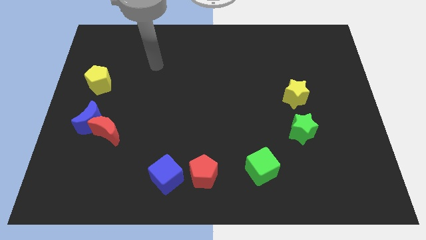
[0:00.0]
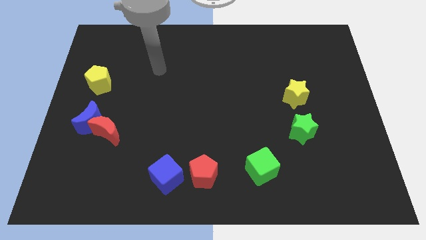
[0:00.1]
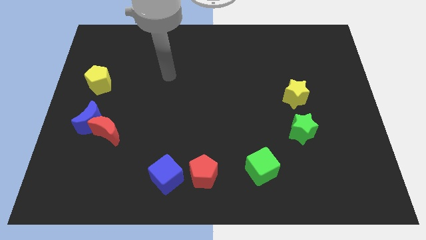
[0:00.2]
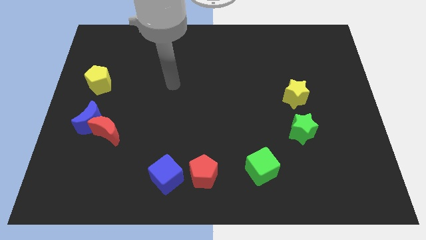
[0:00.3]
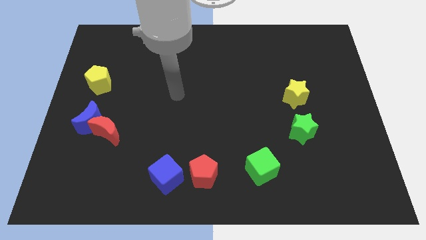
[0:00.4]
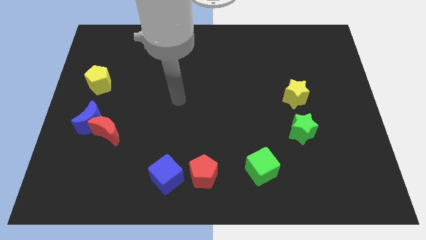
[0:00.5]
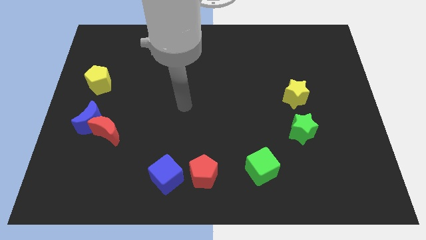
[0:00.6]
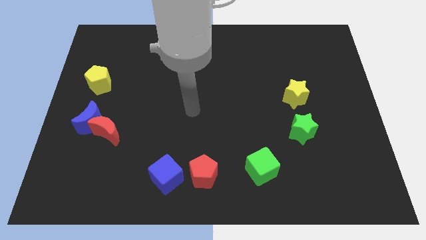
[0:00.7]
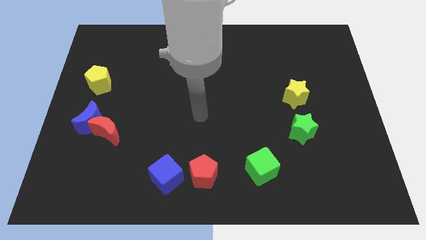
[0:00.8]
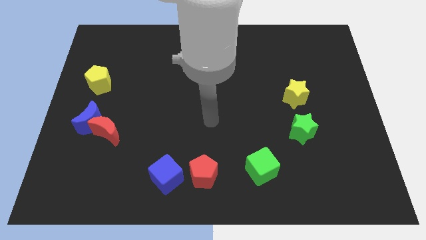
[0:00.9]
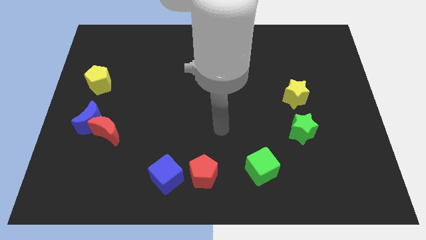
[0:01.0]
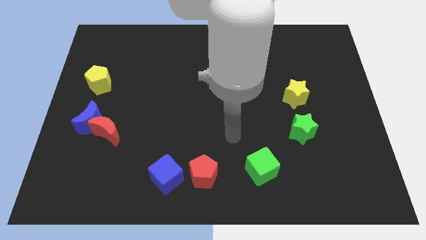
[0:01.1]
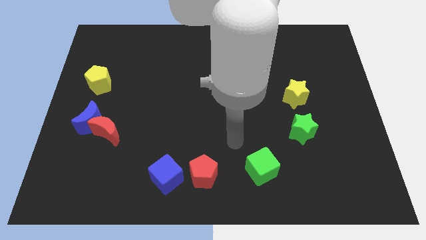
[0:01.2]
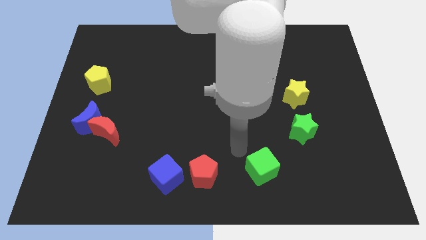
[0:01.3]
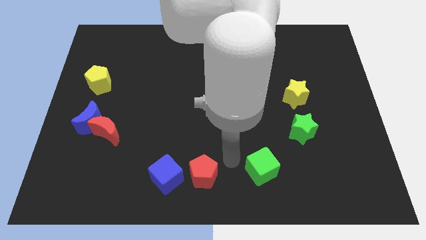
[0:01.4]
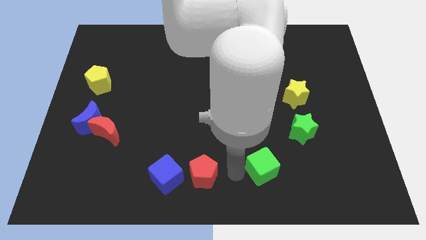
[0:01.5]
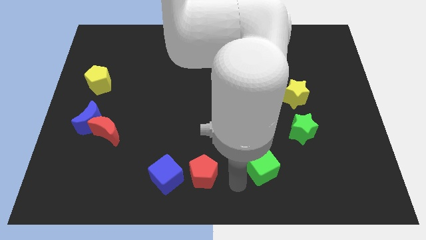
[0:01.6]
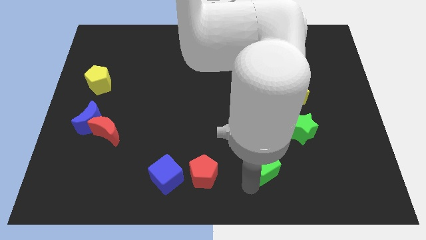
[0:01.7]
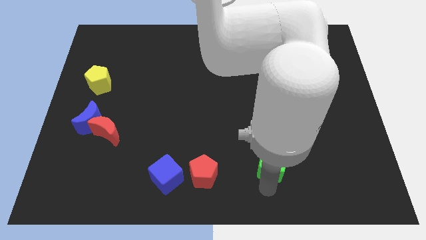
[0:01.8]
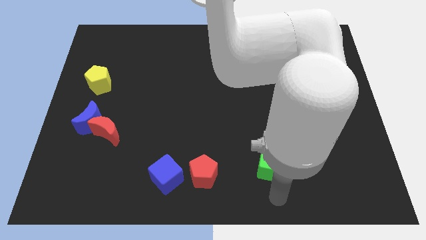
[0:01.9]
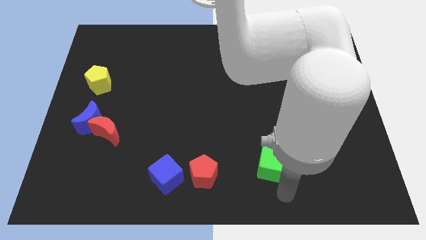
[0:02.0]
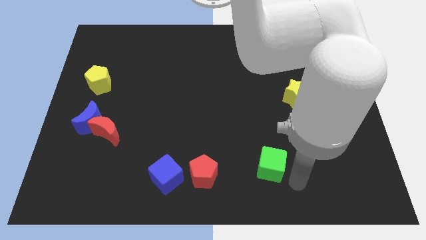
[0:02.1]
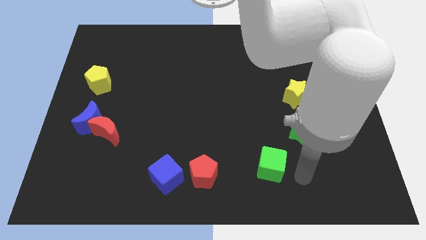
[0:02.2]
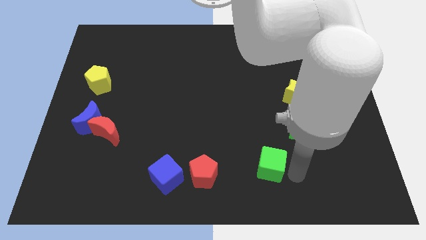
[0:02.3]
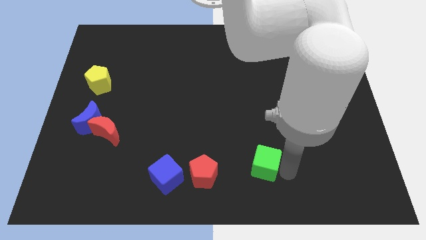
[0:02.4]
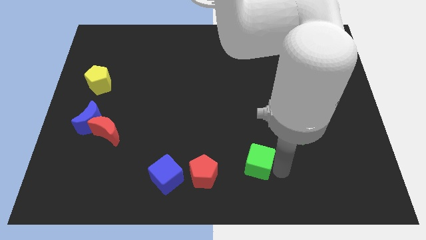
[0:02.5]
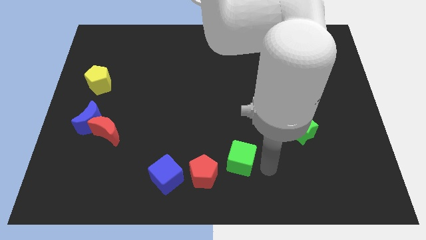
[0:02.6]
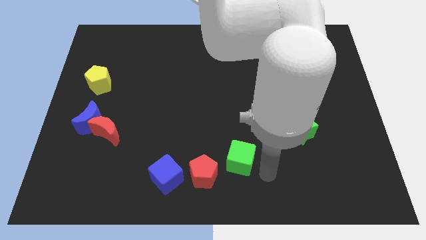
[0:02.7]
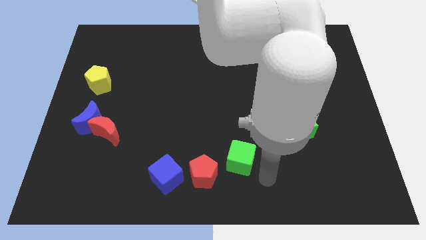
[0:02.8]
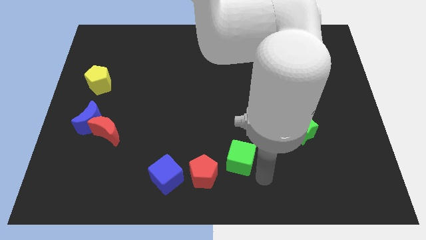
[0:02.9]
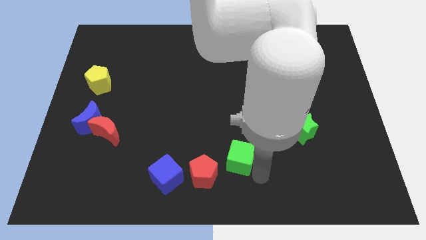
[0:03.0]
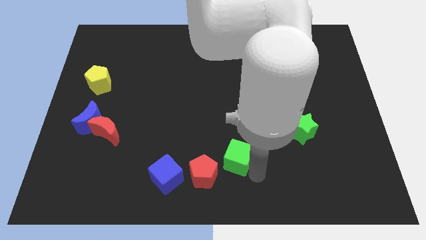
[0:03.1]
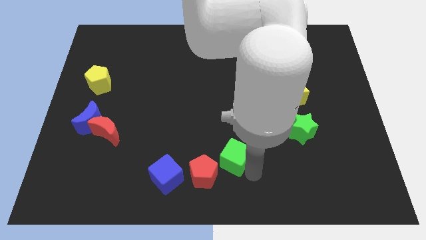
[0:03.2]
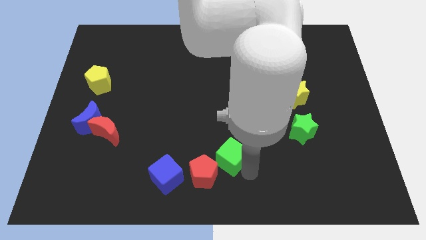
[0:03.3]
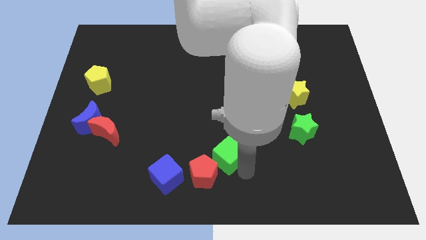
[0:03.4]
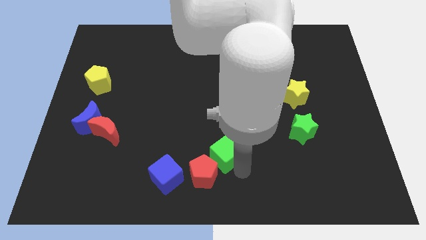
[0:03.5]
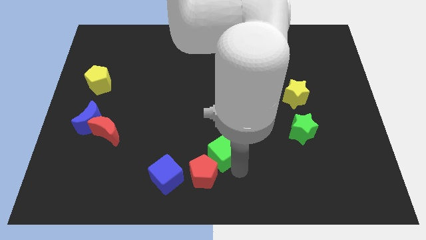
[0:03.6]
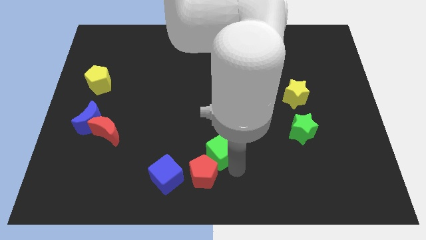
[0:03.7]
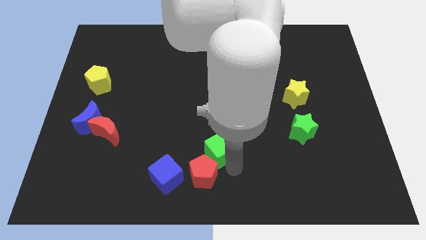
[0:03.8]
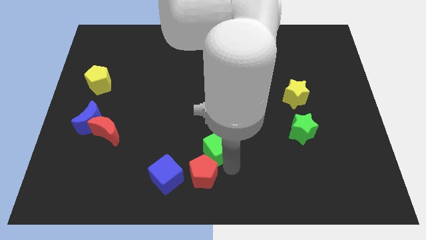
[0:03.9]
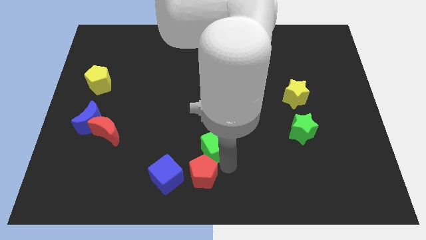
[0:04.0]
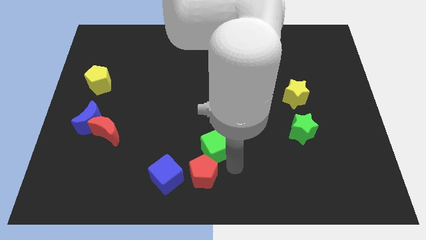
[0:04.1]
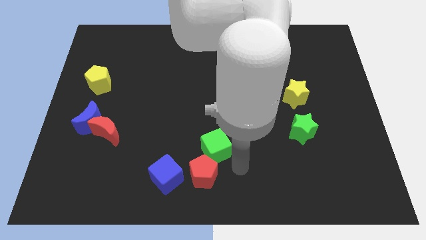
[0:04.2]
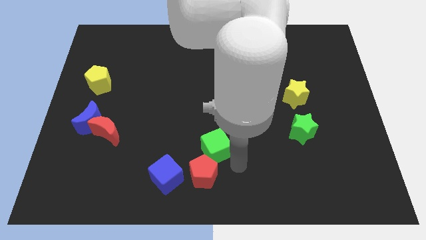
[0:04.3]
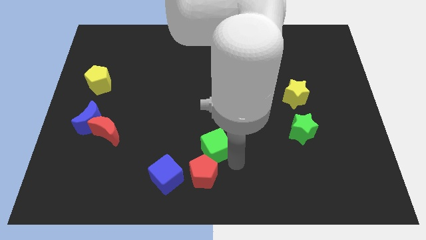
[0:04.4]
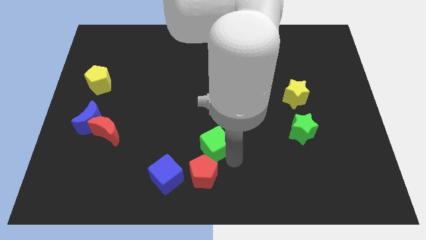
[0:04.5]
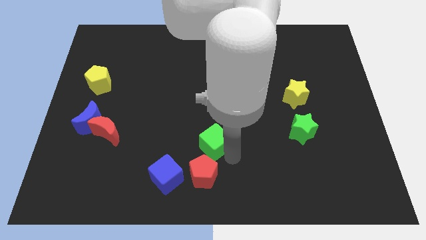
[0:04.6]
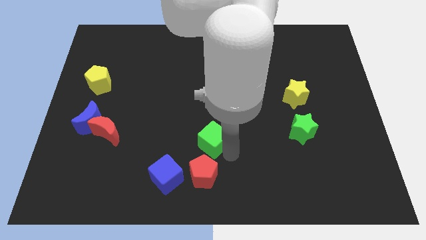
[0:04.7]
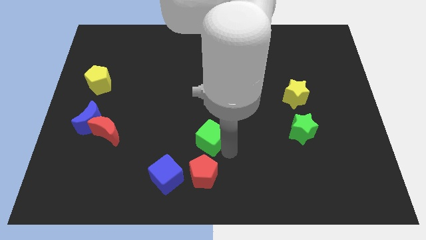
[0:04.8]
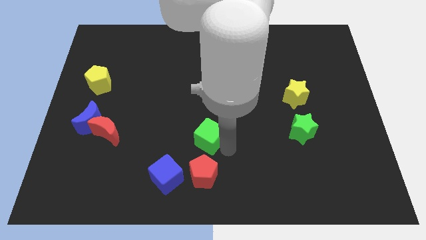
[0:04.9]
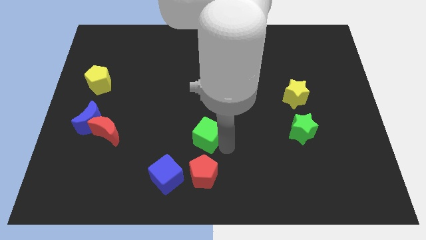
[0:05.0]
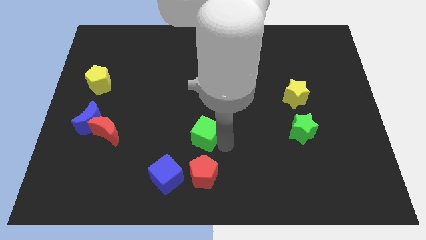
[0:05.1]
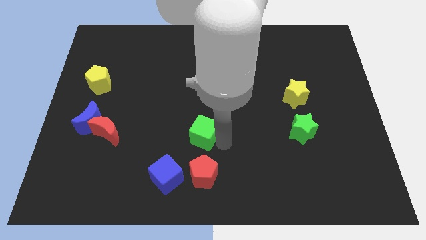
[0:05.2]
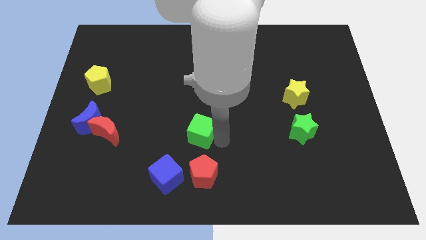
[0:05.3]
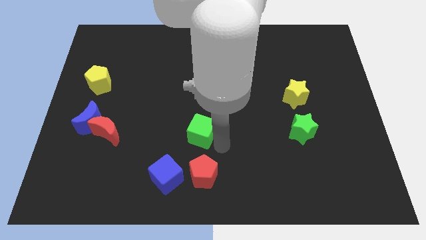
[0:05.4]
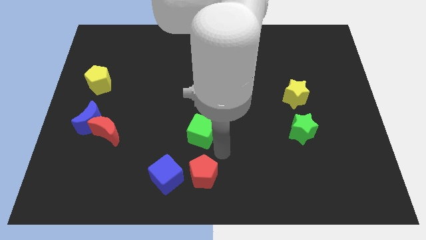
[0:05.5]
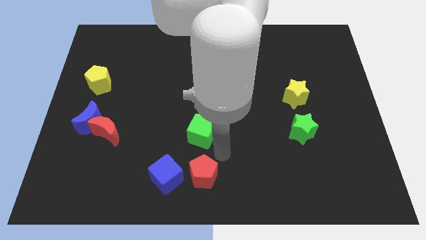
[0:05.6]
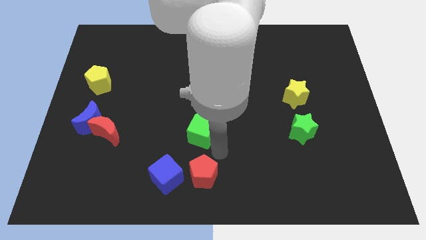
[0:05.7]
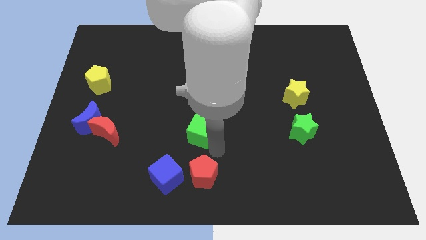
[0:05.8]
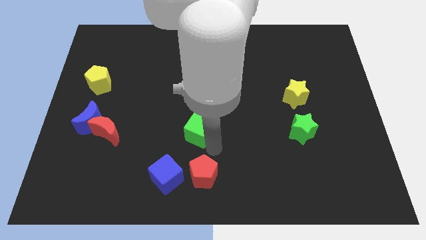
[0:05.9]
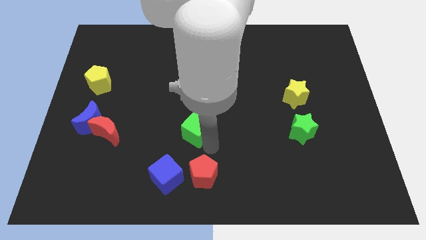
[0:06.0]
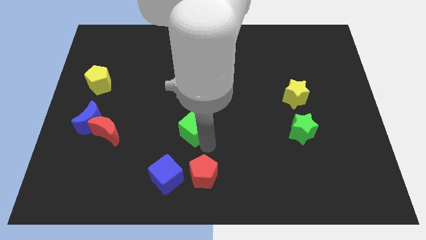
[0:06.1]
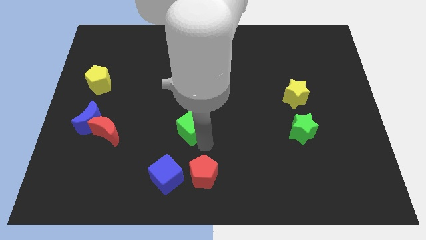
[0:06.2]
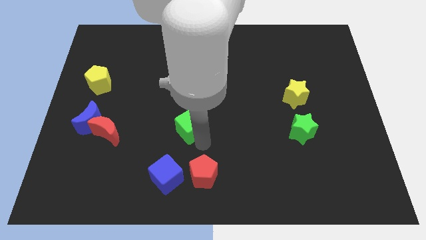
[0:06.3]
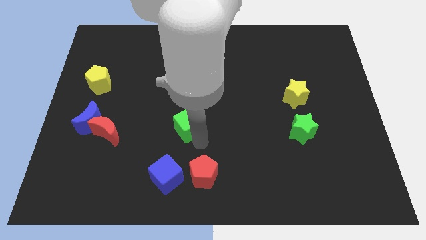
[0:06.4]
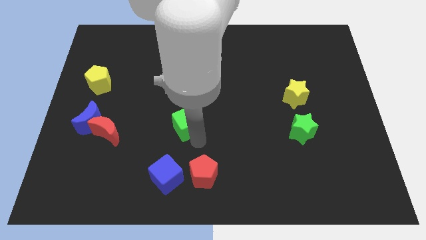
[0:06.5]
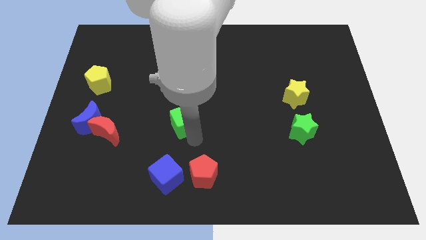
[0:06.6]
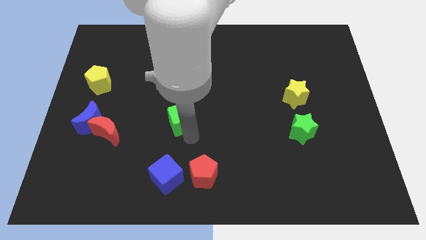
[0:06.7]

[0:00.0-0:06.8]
push the green cube diagonally up and to the left

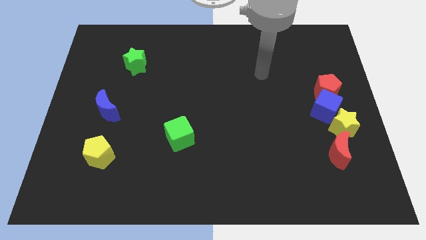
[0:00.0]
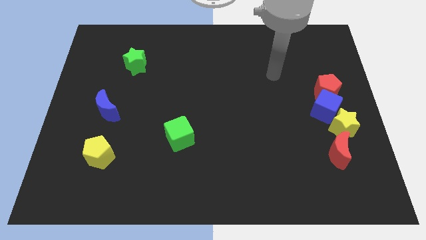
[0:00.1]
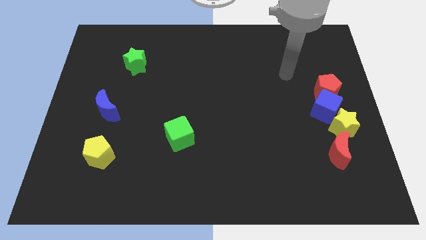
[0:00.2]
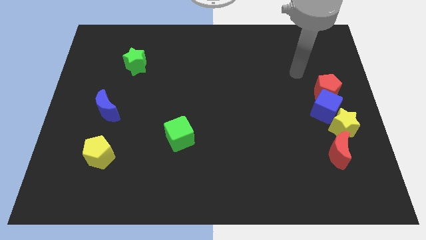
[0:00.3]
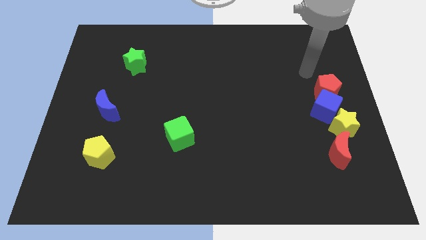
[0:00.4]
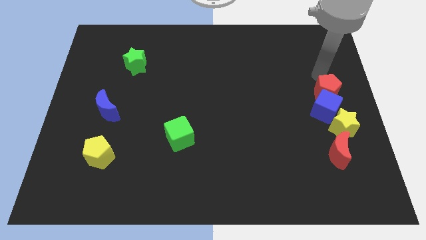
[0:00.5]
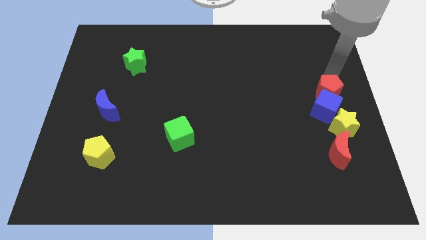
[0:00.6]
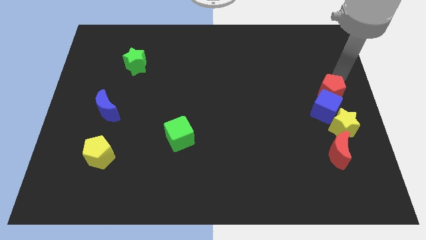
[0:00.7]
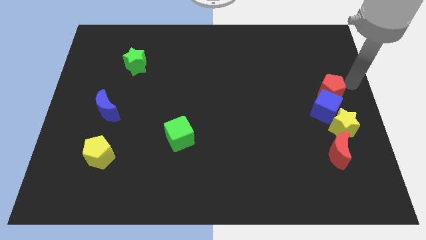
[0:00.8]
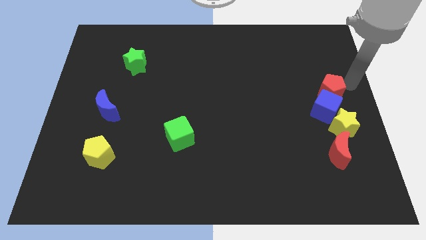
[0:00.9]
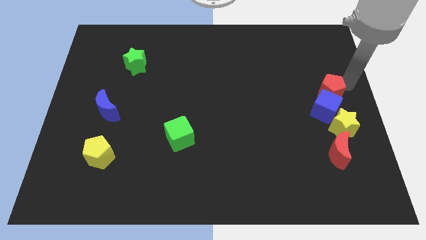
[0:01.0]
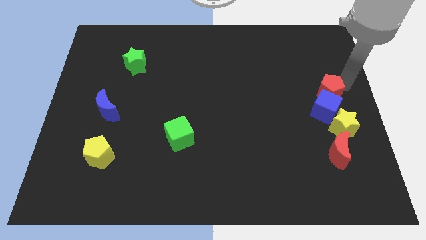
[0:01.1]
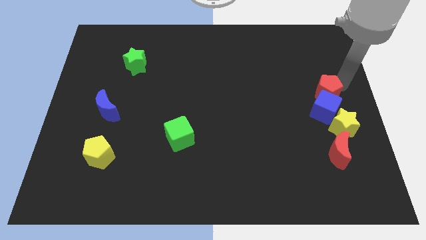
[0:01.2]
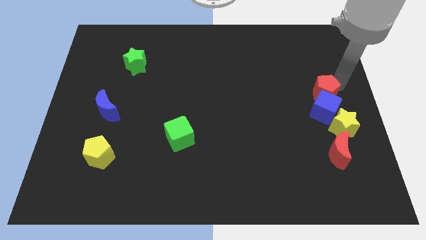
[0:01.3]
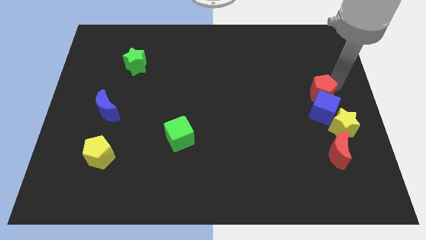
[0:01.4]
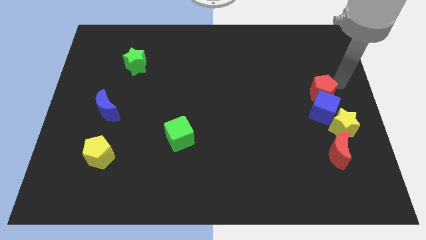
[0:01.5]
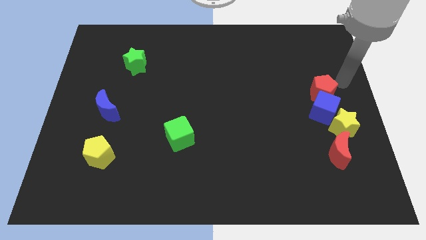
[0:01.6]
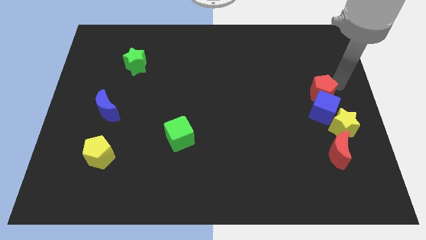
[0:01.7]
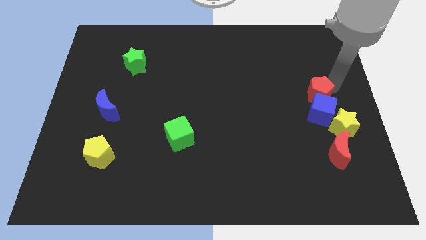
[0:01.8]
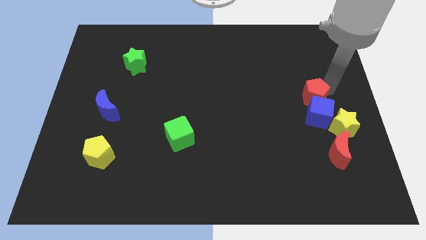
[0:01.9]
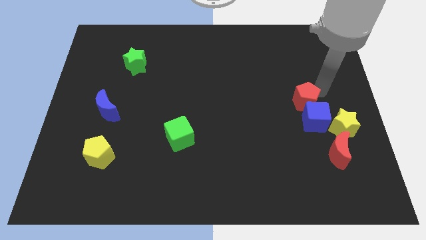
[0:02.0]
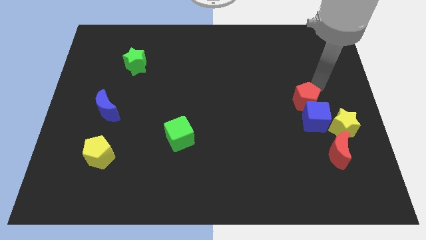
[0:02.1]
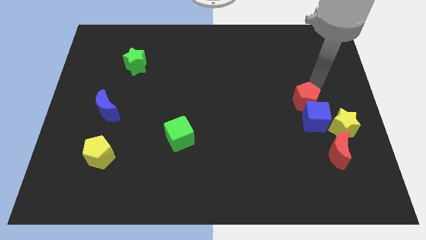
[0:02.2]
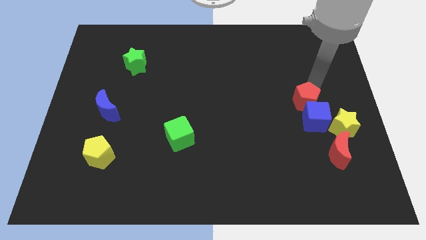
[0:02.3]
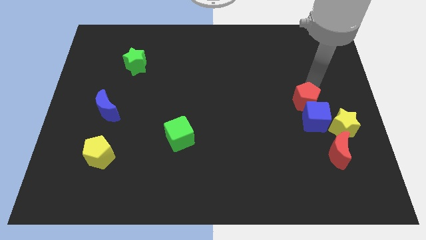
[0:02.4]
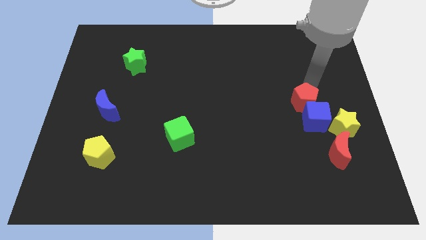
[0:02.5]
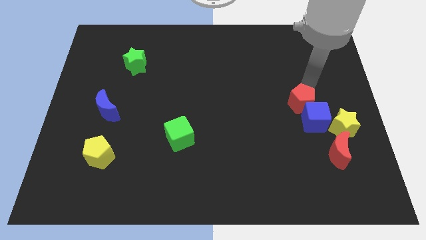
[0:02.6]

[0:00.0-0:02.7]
slide the red pentagon down and then to the left a bit
